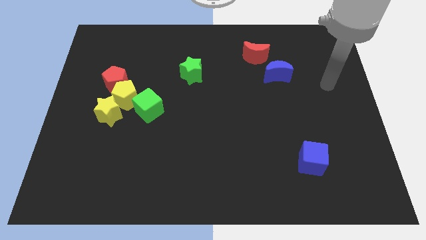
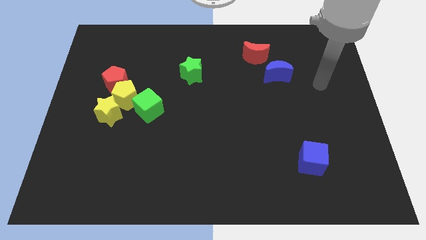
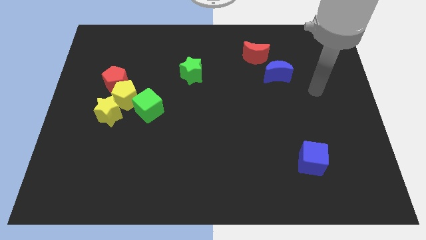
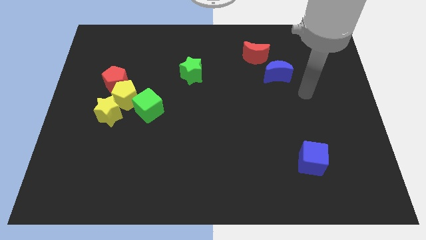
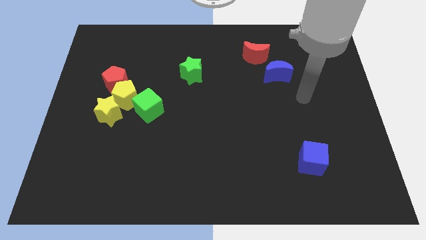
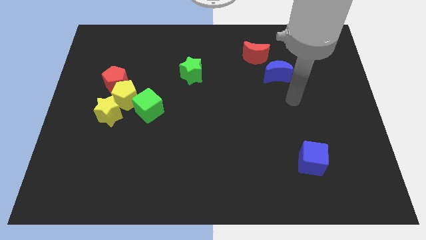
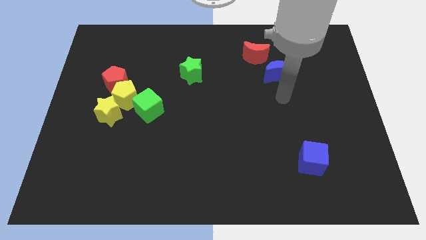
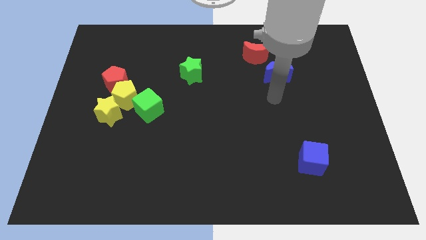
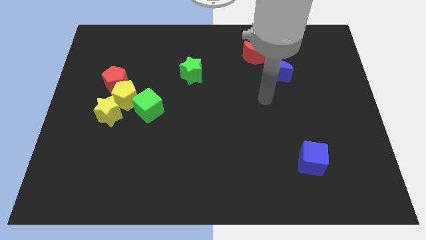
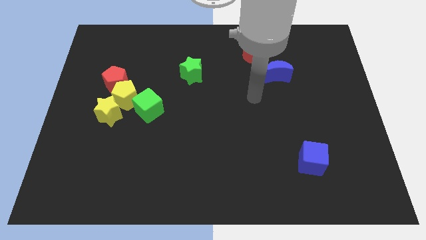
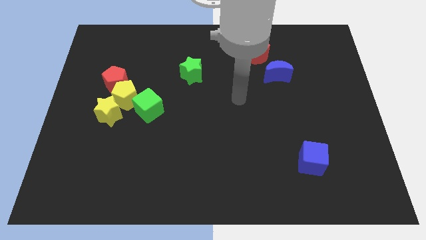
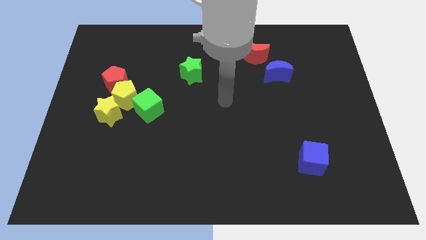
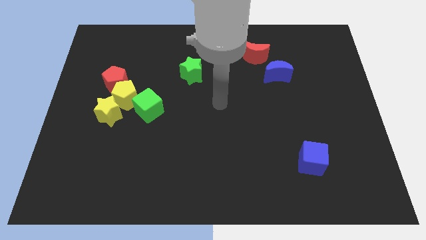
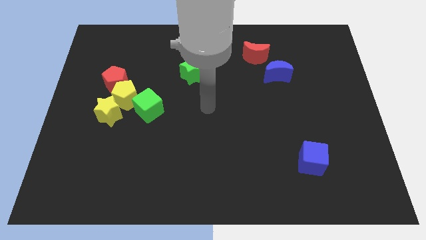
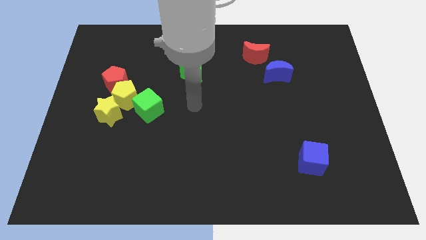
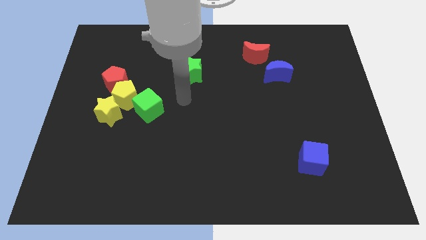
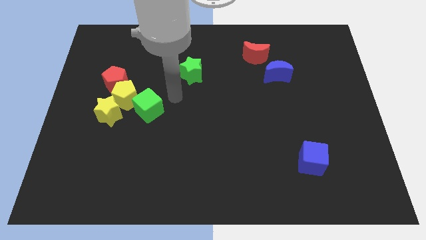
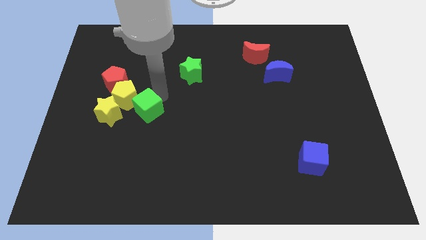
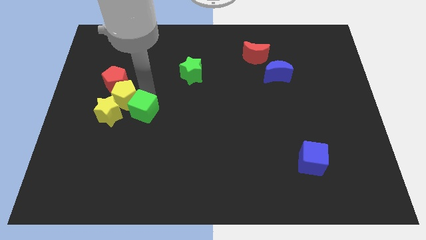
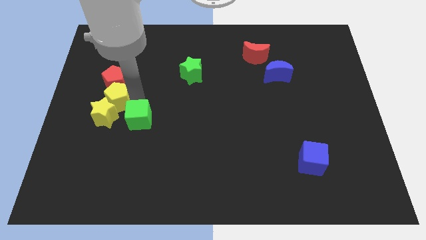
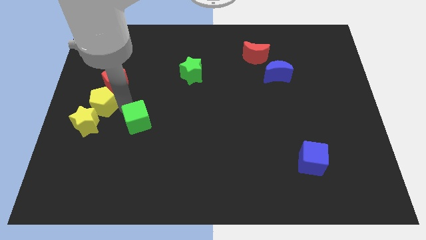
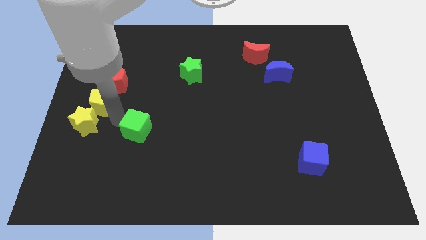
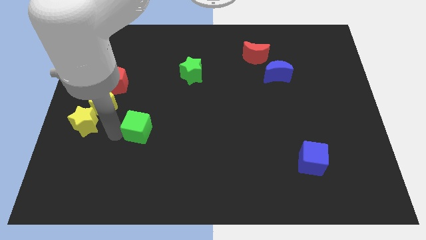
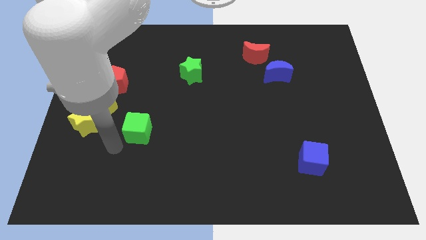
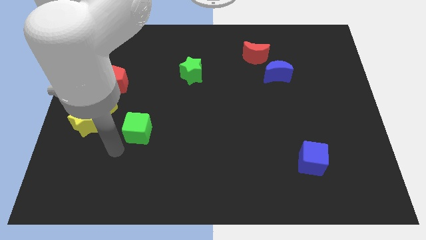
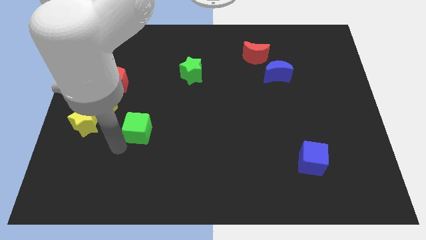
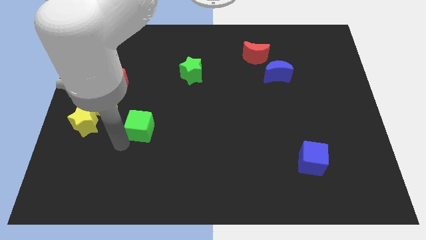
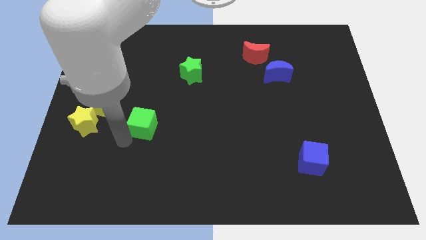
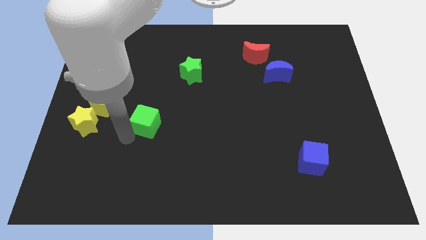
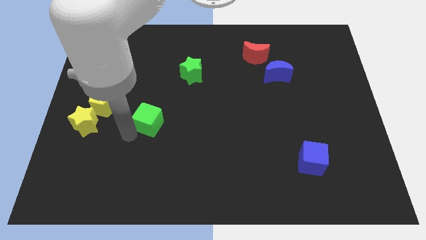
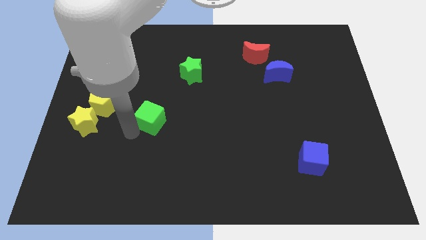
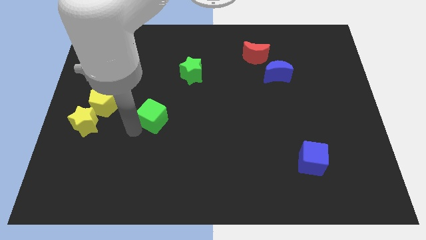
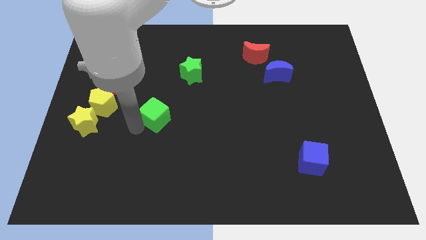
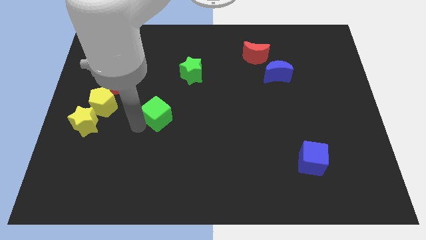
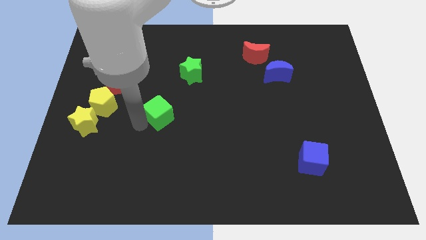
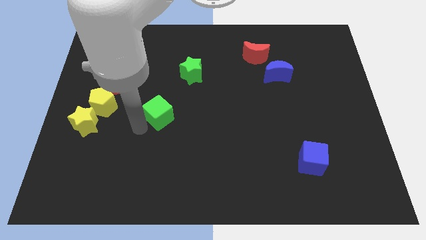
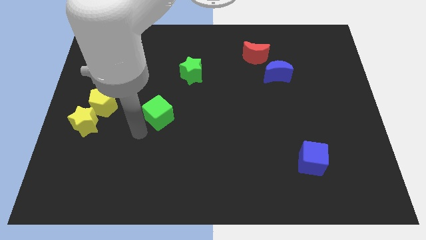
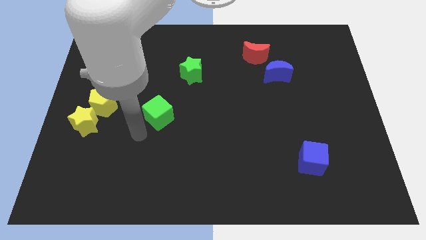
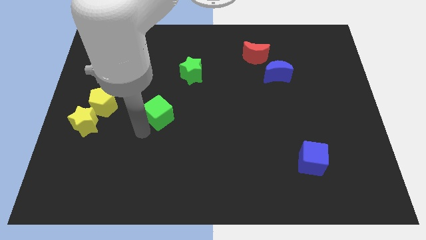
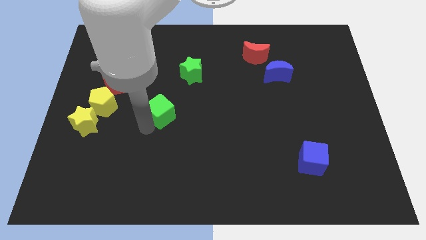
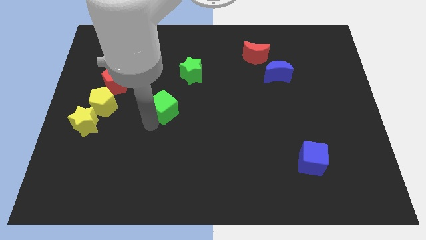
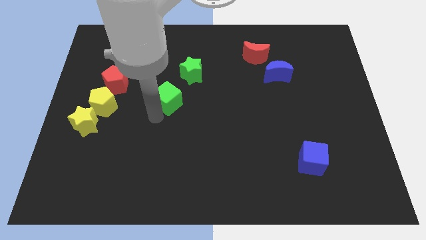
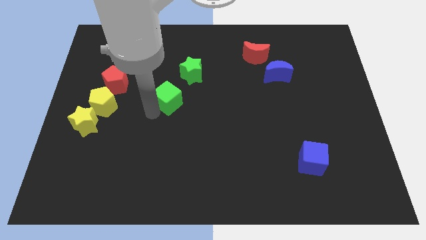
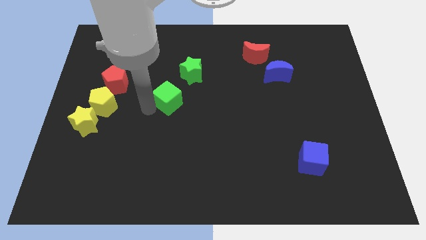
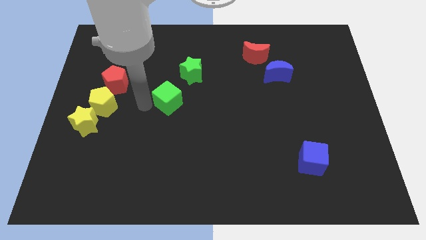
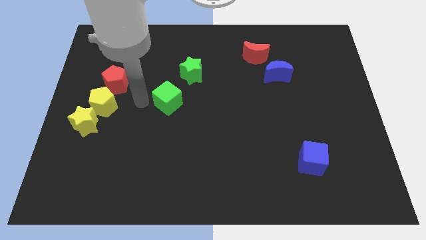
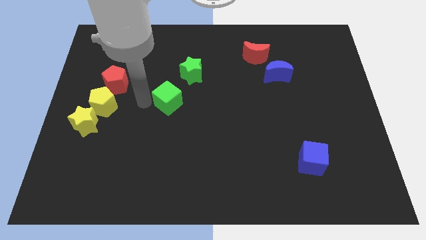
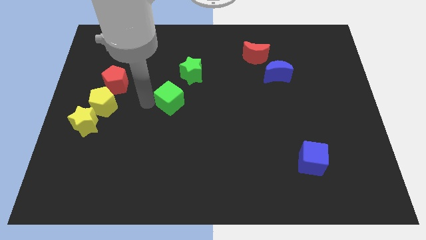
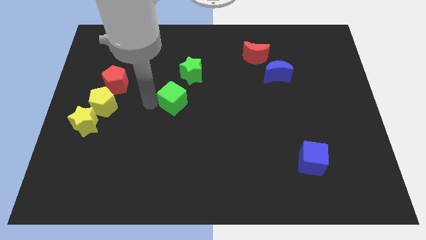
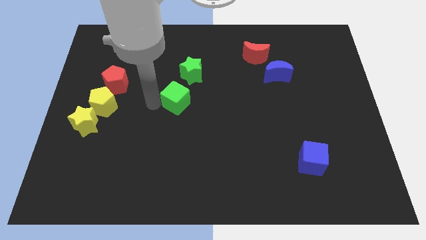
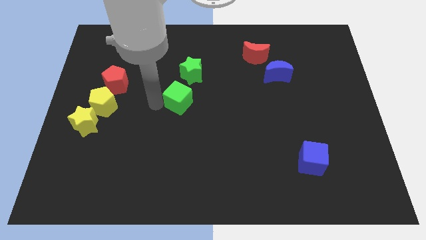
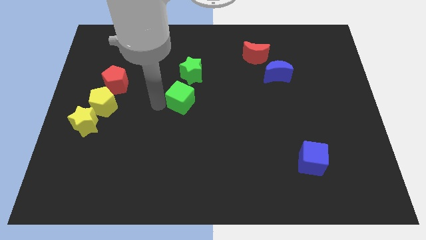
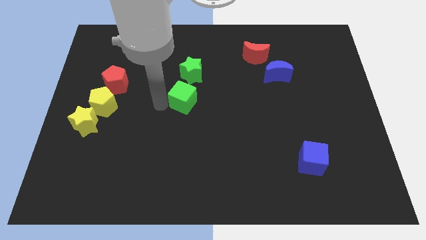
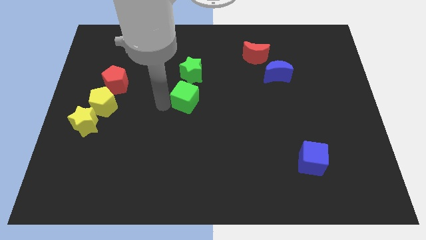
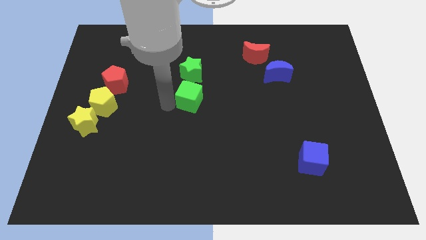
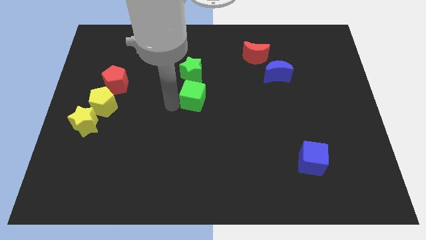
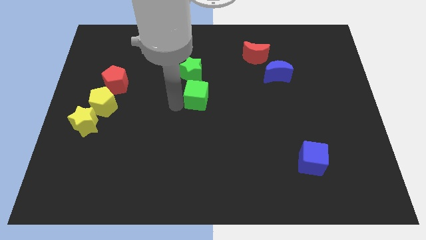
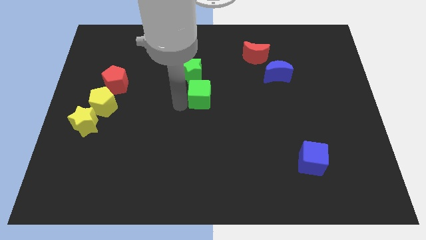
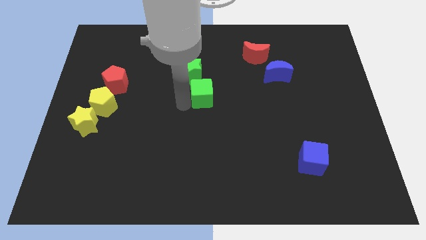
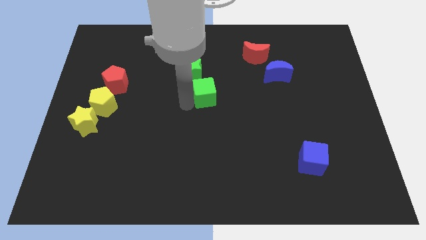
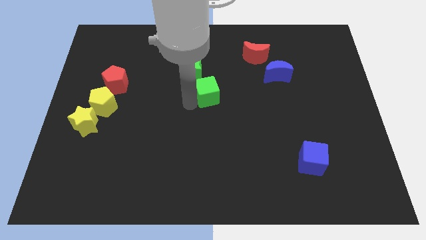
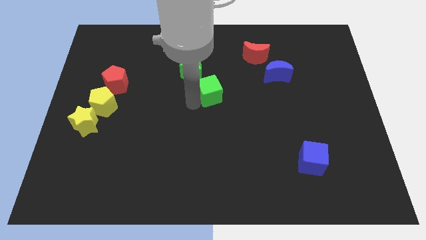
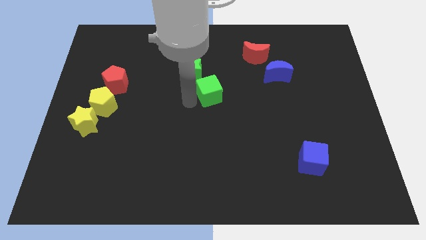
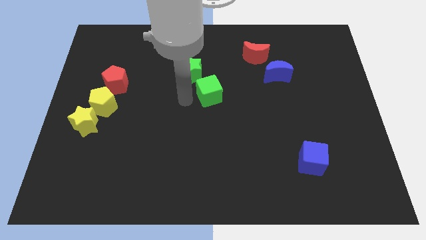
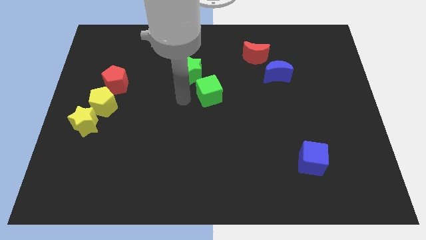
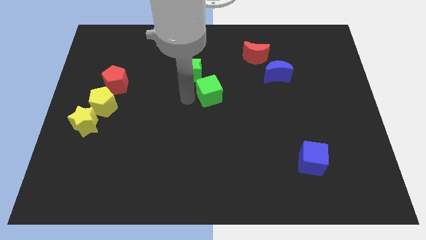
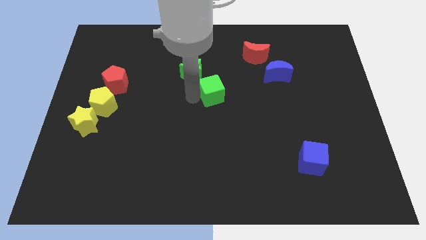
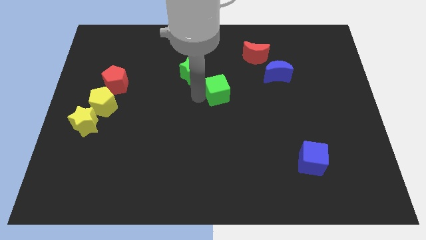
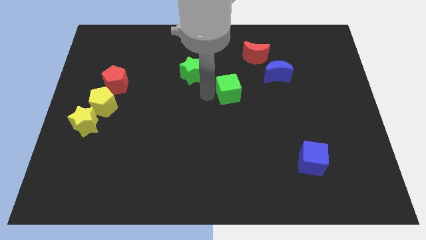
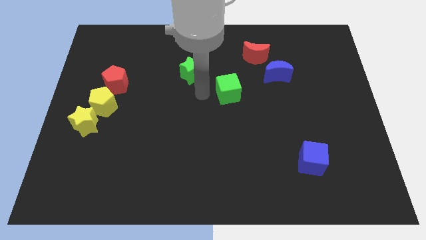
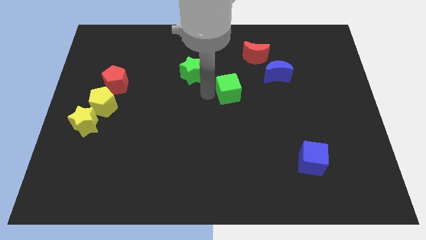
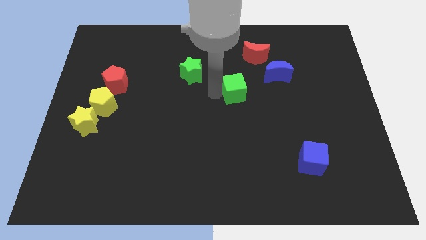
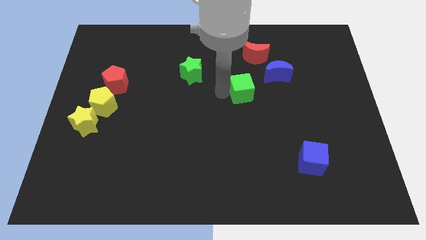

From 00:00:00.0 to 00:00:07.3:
move the green cube to the bottom left side of the blue moon
